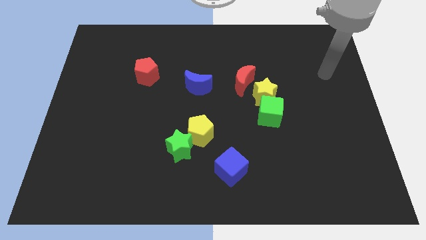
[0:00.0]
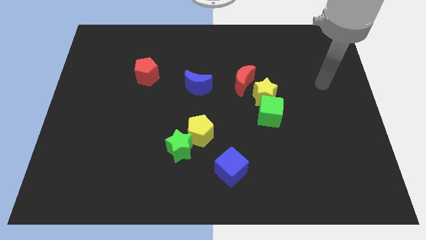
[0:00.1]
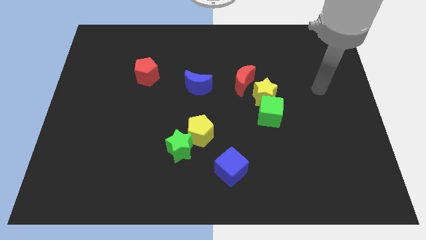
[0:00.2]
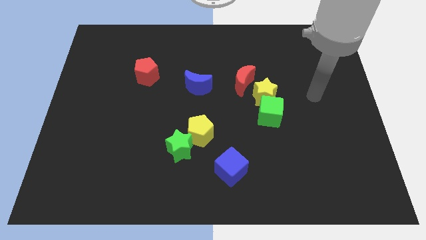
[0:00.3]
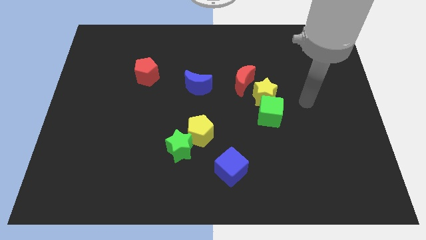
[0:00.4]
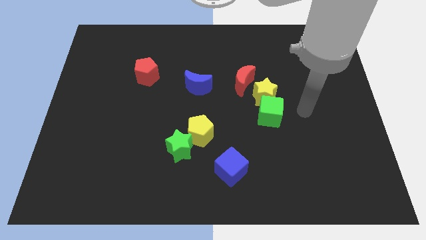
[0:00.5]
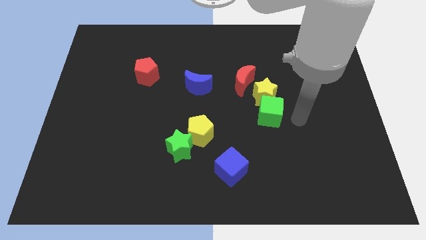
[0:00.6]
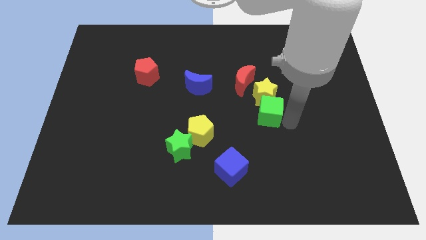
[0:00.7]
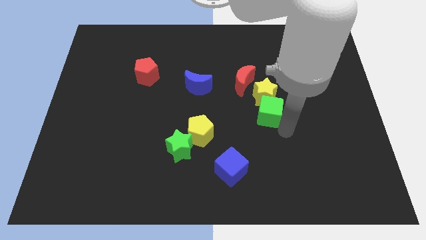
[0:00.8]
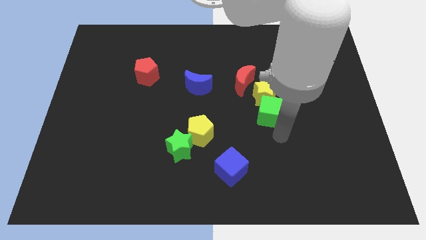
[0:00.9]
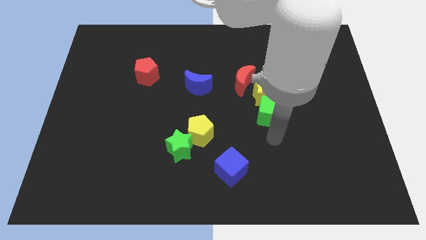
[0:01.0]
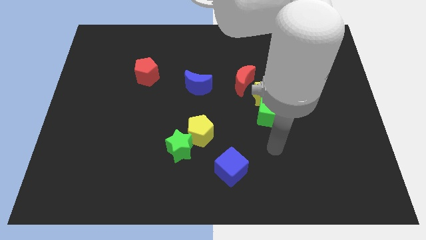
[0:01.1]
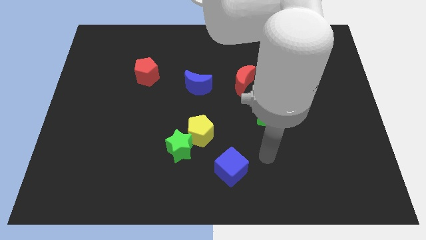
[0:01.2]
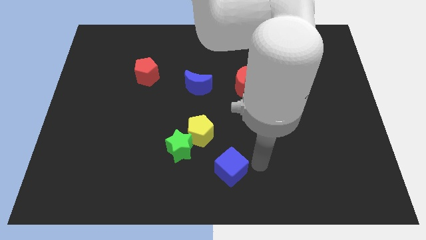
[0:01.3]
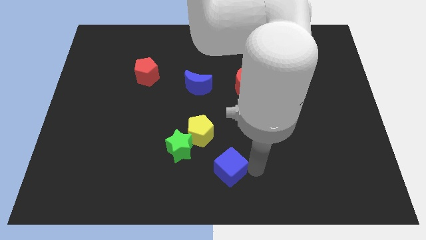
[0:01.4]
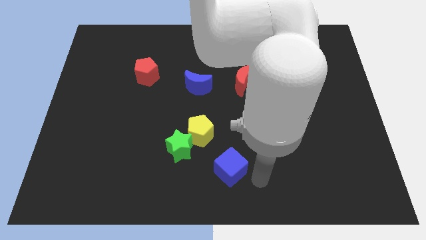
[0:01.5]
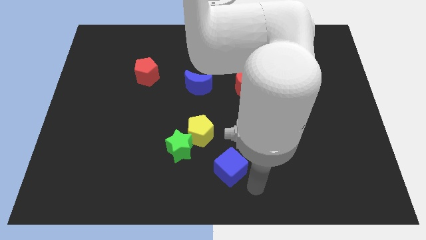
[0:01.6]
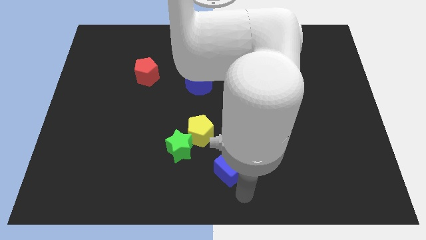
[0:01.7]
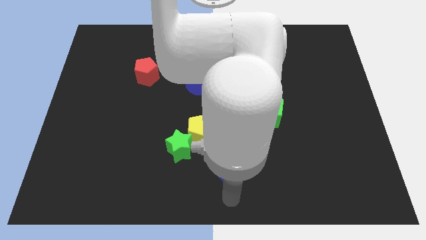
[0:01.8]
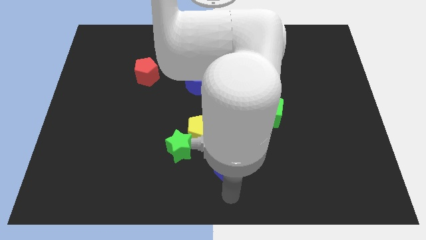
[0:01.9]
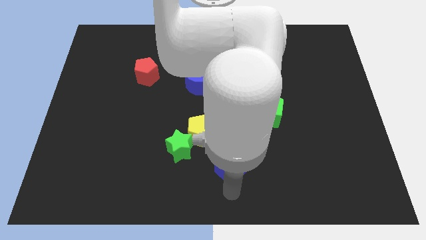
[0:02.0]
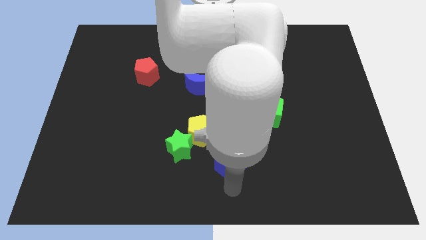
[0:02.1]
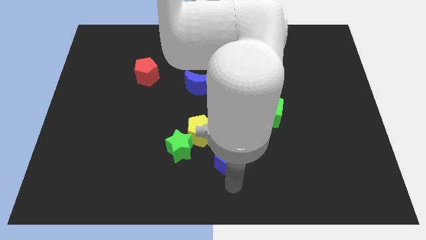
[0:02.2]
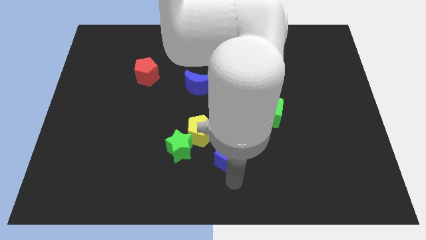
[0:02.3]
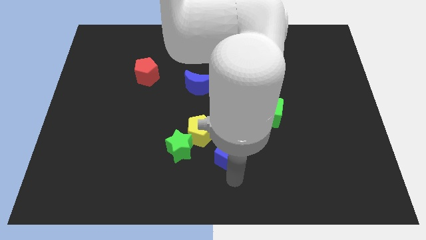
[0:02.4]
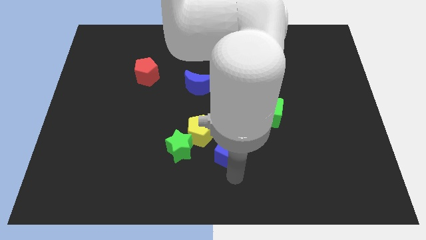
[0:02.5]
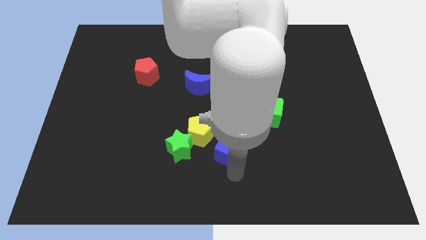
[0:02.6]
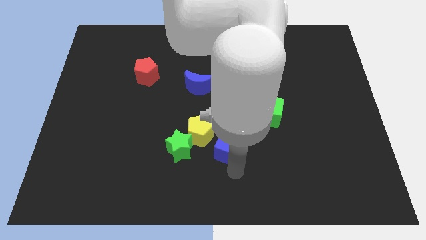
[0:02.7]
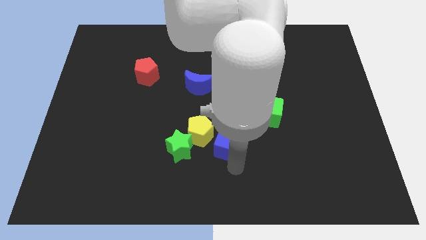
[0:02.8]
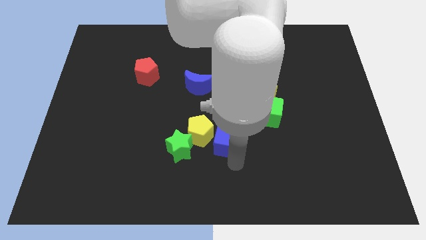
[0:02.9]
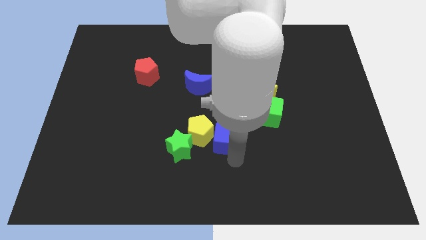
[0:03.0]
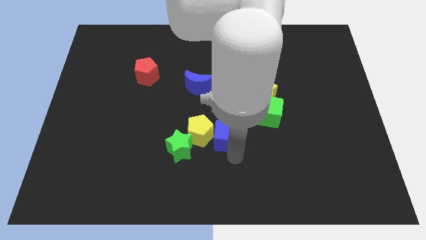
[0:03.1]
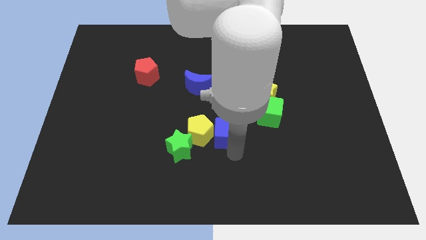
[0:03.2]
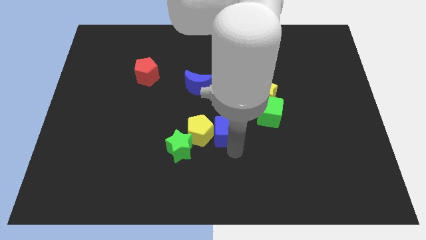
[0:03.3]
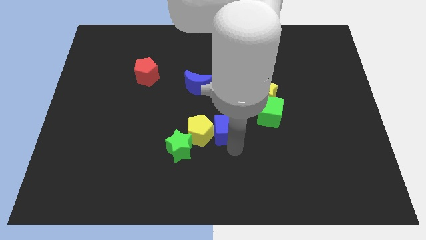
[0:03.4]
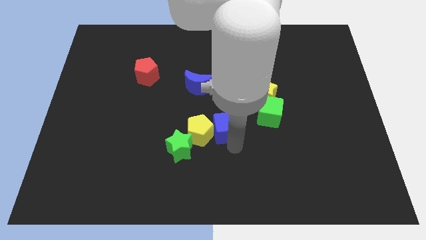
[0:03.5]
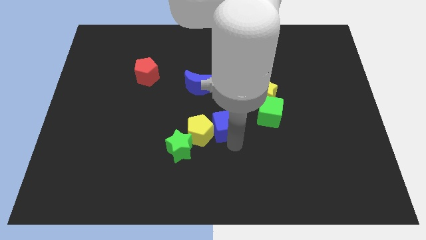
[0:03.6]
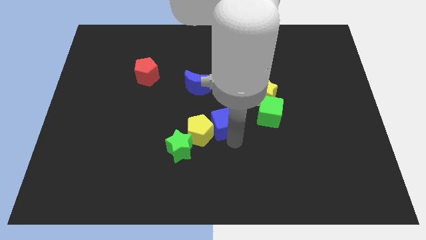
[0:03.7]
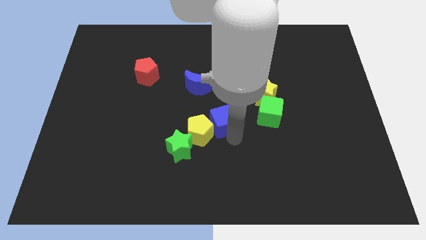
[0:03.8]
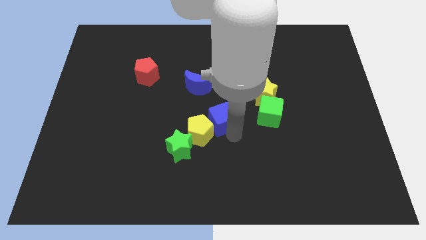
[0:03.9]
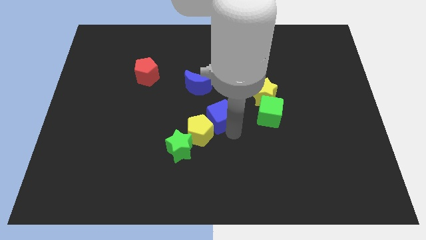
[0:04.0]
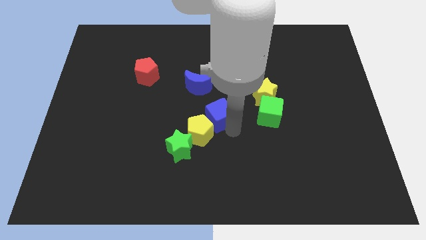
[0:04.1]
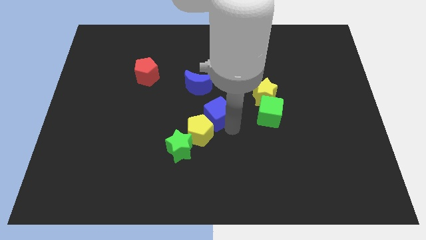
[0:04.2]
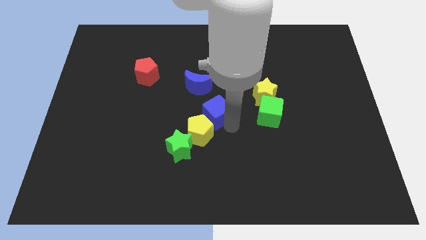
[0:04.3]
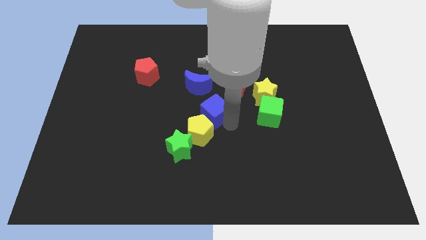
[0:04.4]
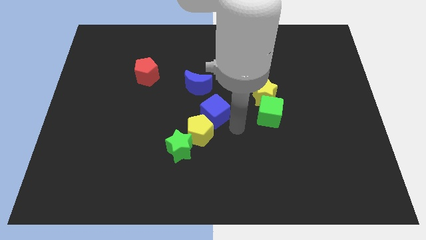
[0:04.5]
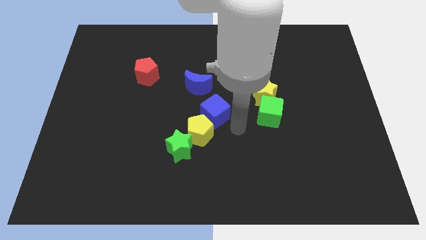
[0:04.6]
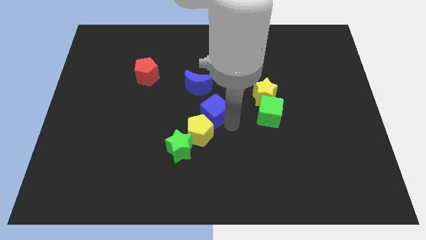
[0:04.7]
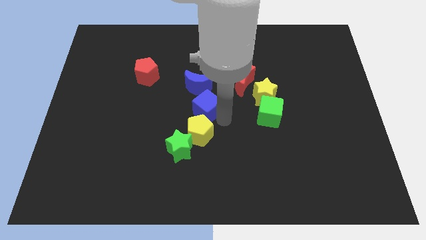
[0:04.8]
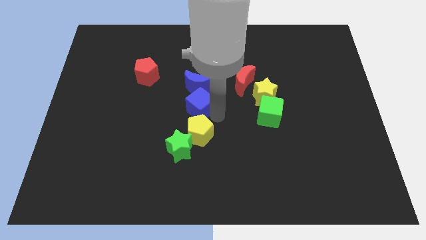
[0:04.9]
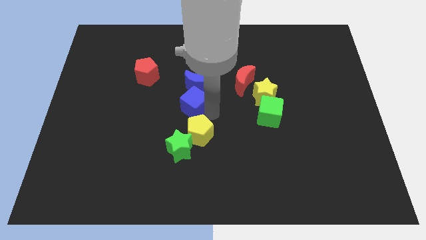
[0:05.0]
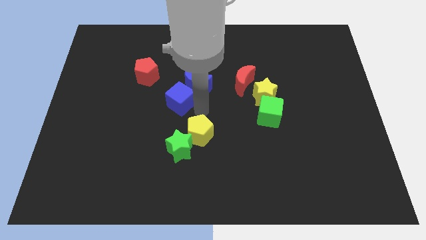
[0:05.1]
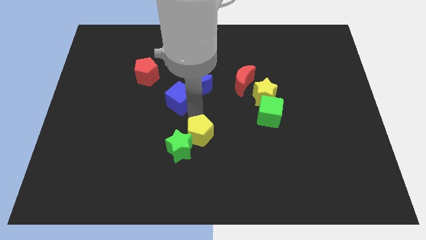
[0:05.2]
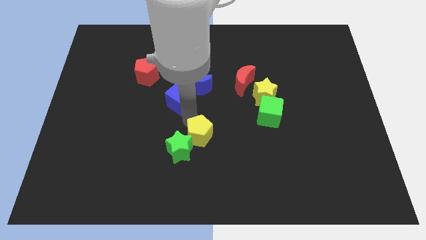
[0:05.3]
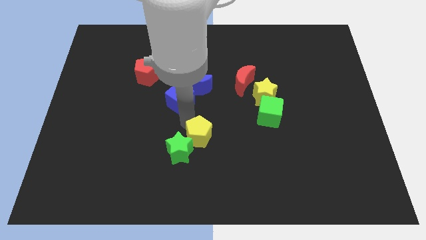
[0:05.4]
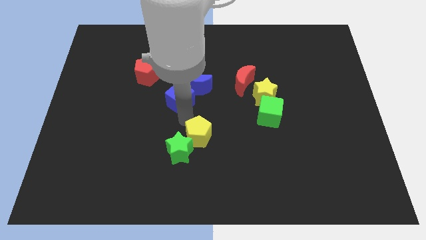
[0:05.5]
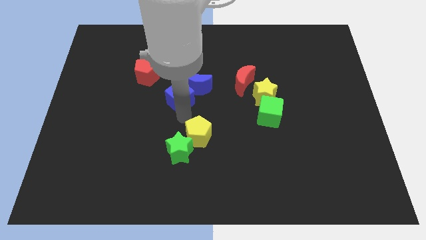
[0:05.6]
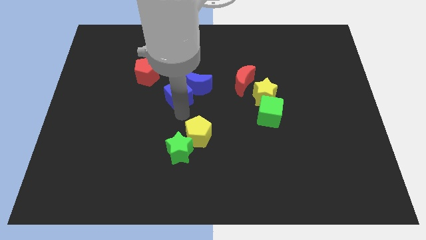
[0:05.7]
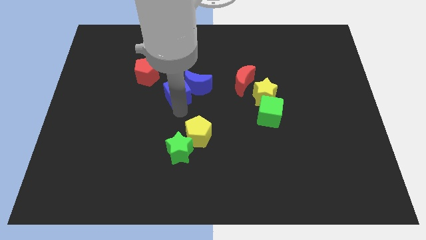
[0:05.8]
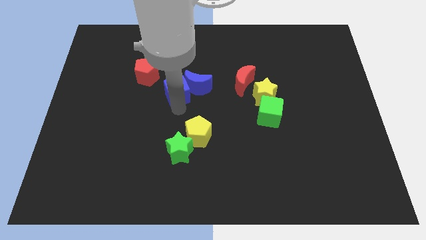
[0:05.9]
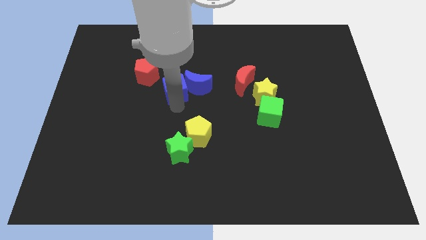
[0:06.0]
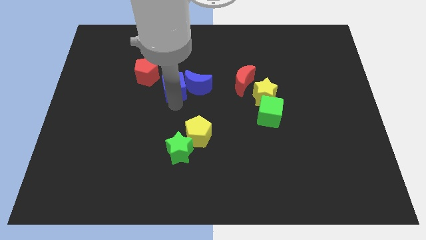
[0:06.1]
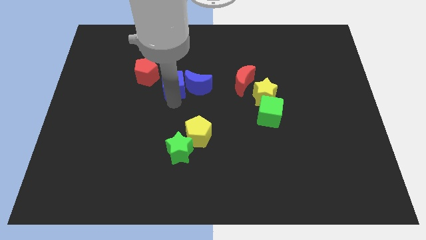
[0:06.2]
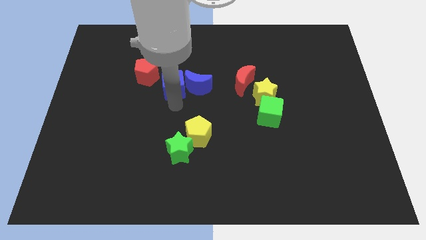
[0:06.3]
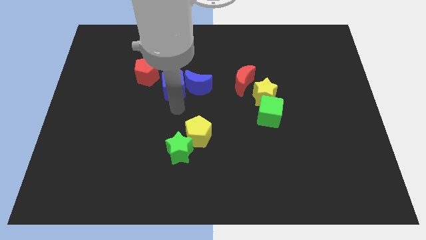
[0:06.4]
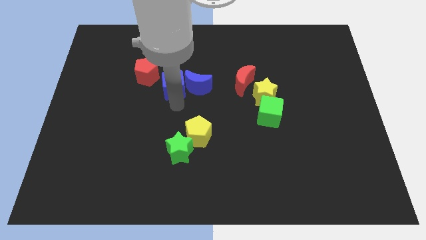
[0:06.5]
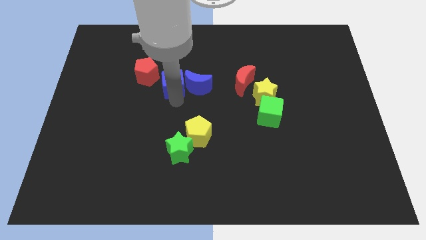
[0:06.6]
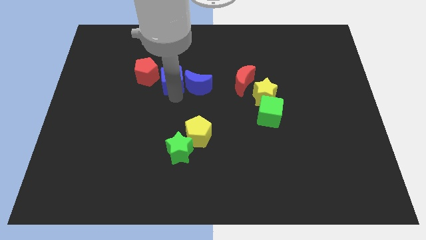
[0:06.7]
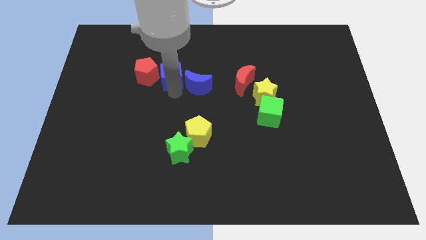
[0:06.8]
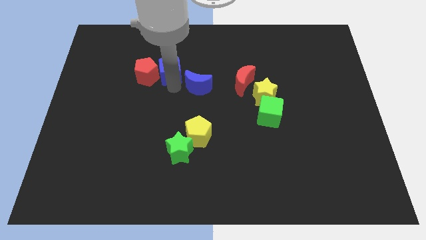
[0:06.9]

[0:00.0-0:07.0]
slide the blue cube diagonally up and to the right of the red pentagon
